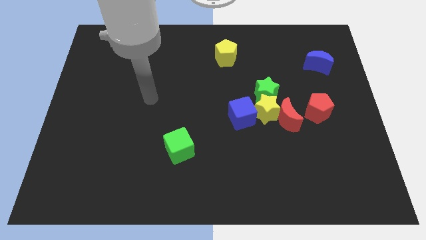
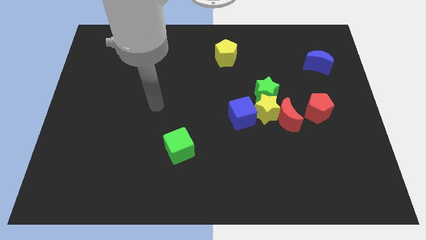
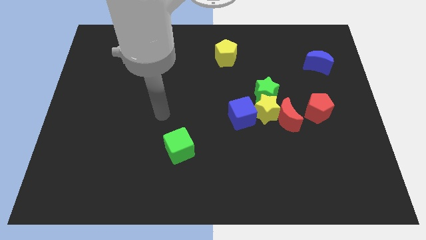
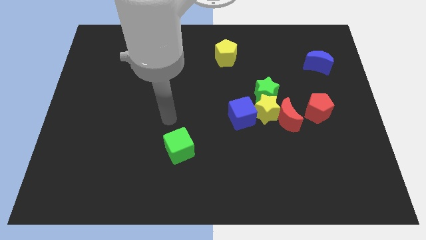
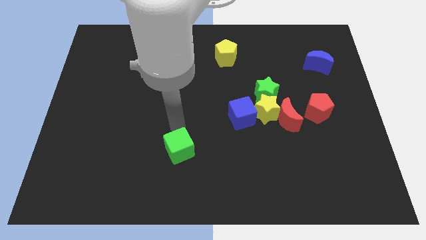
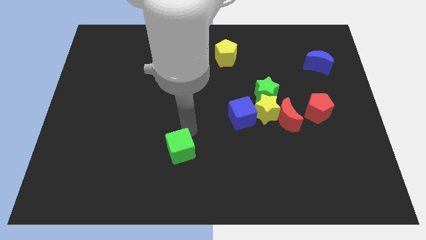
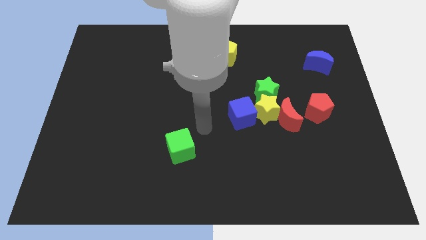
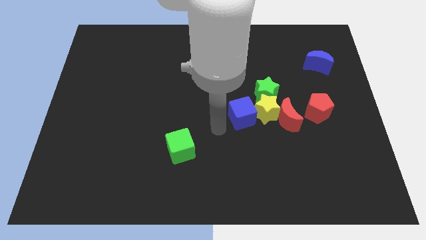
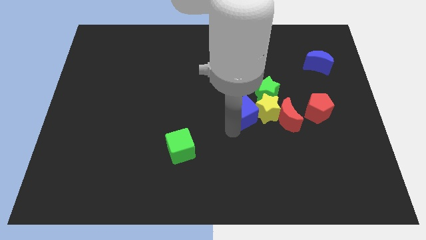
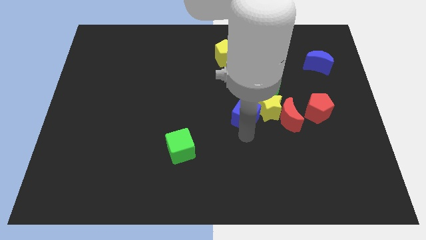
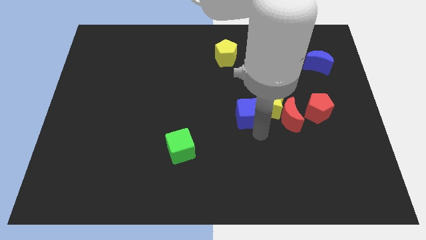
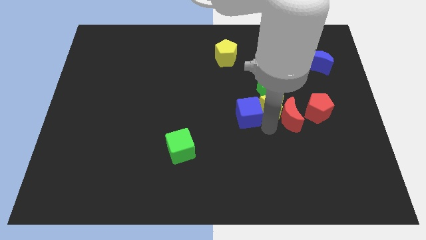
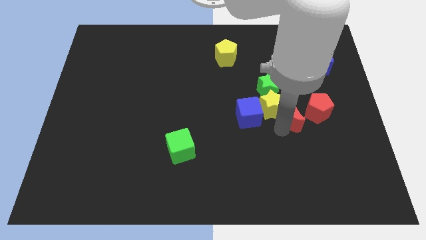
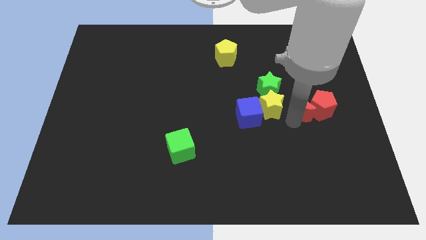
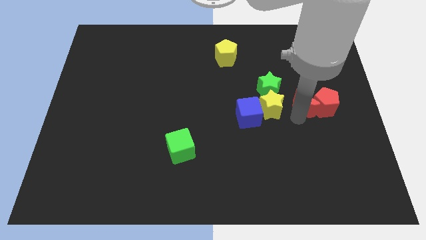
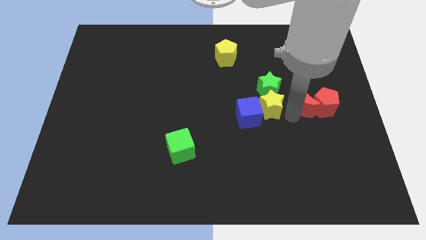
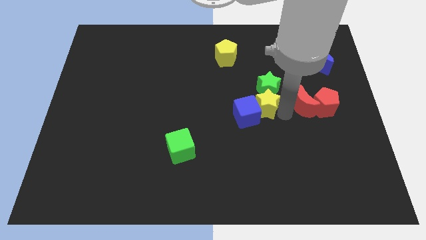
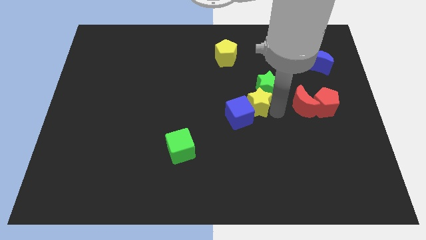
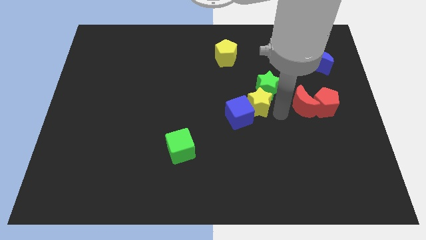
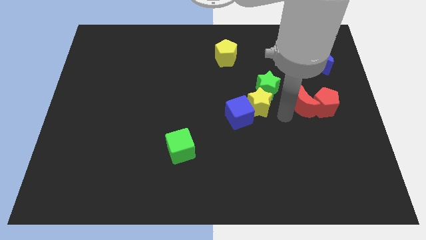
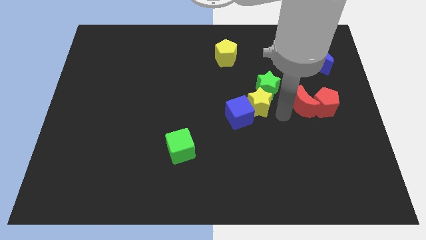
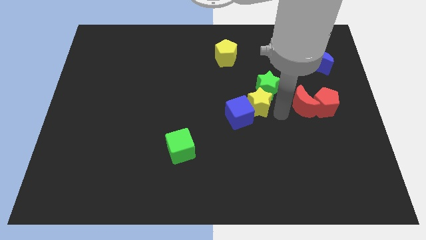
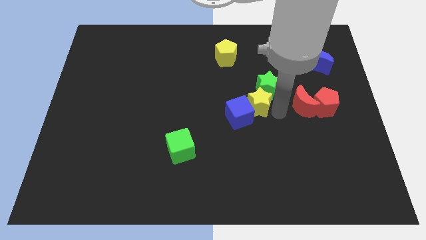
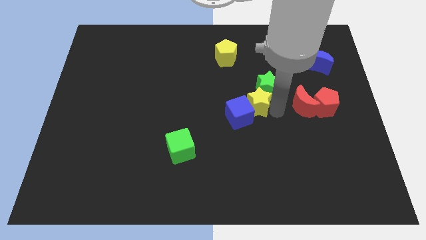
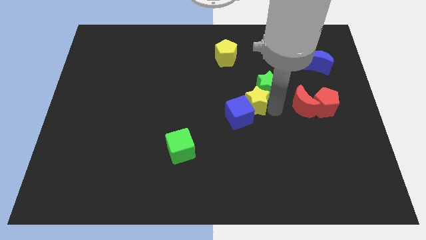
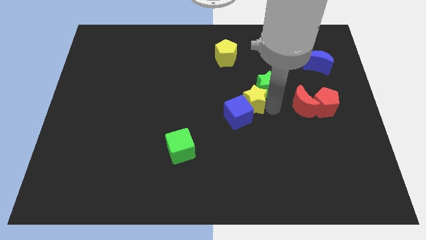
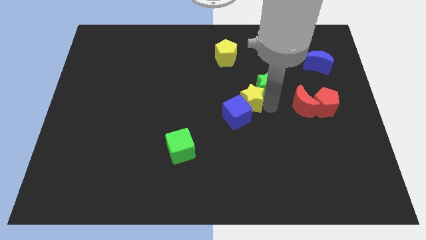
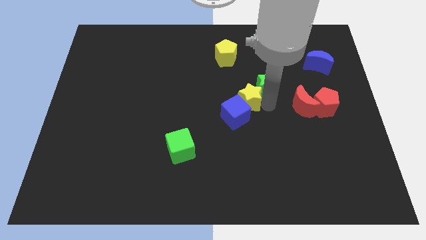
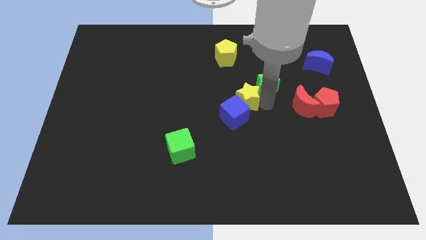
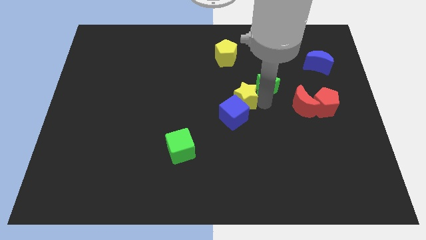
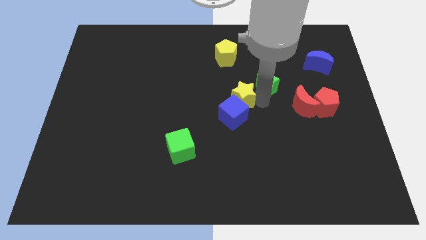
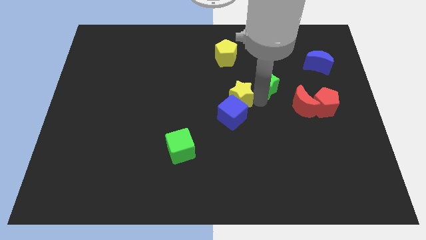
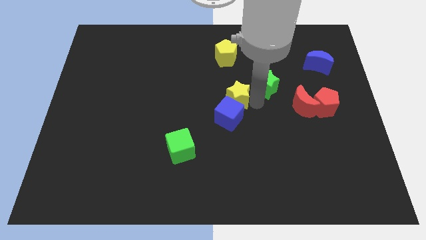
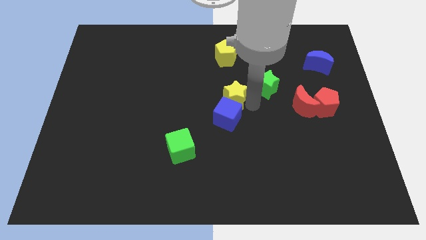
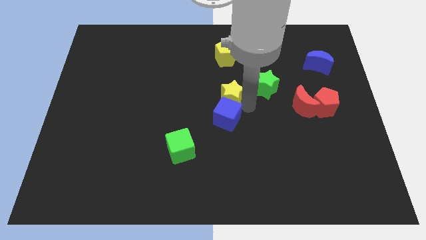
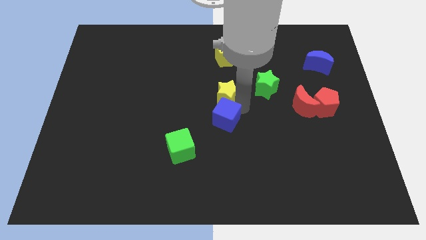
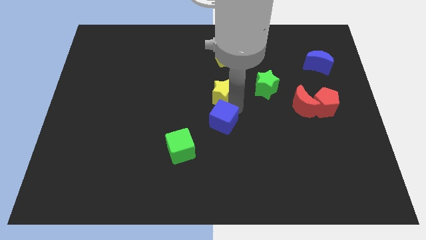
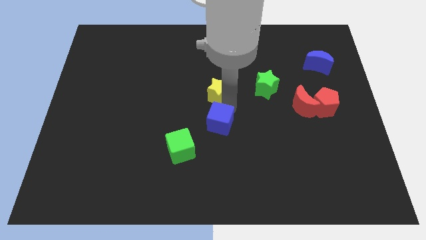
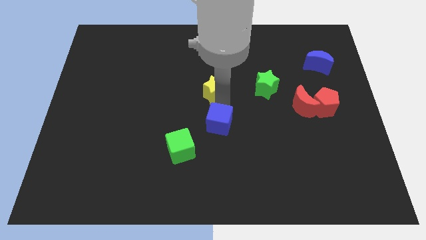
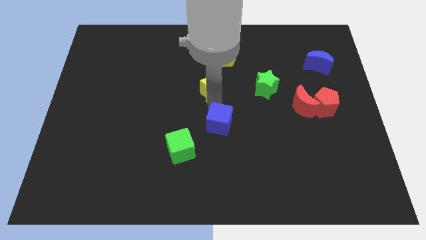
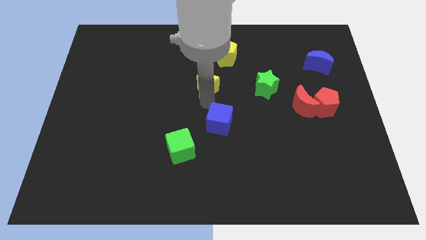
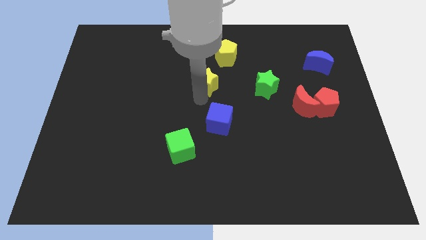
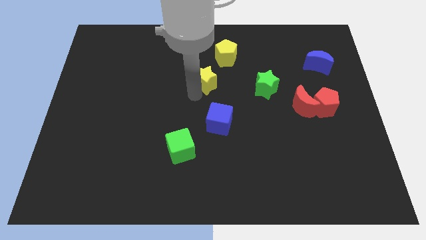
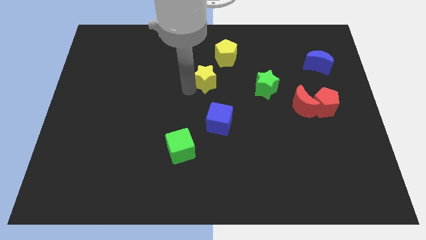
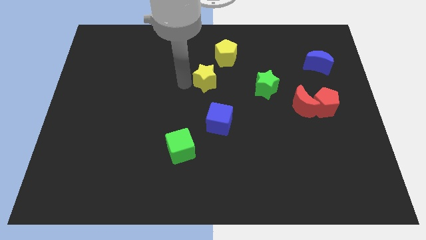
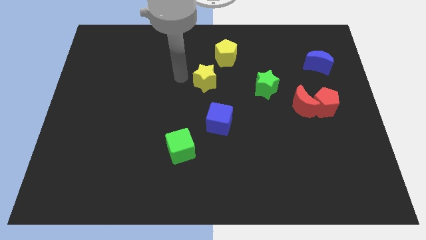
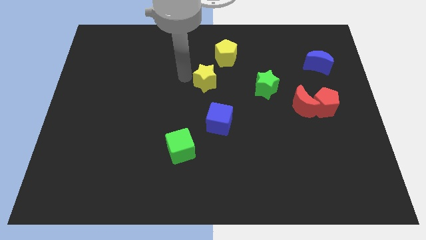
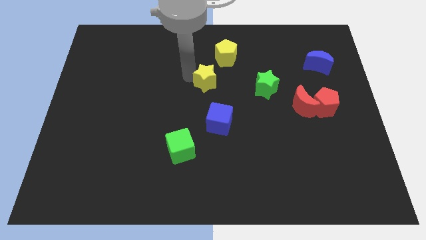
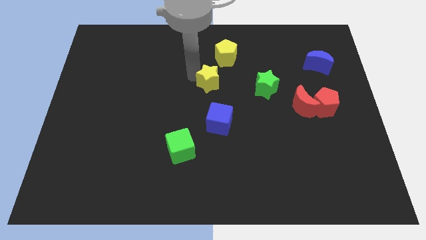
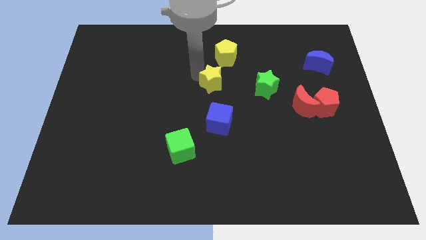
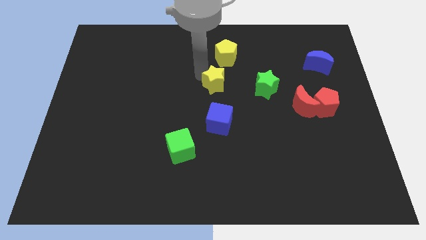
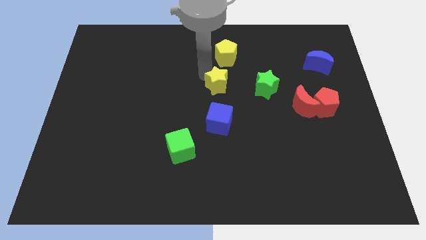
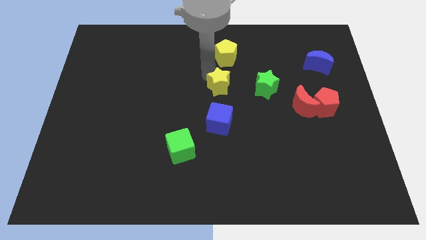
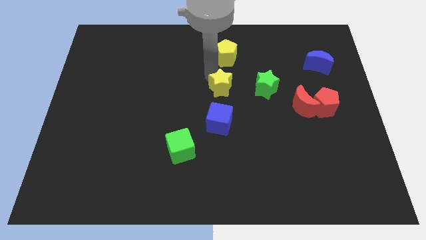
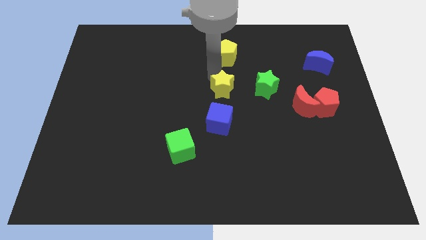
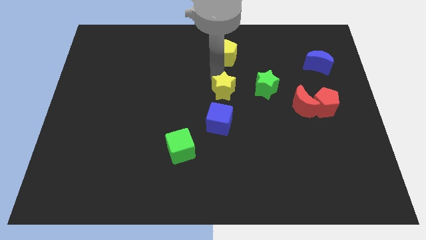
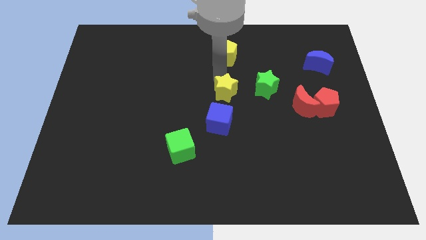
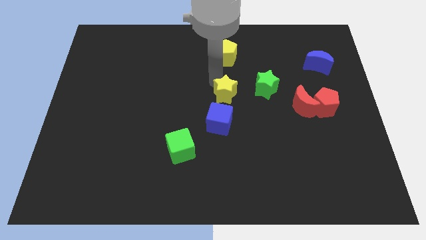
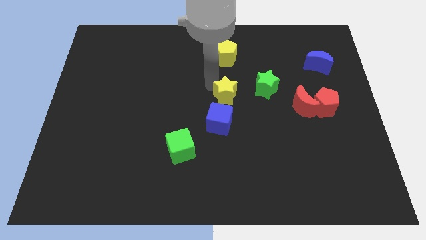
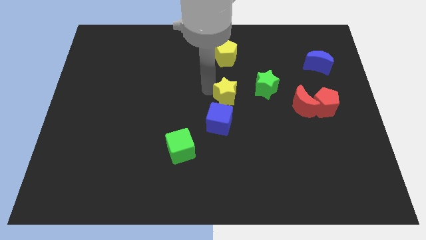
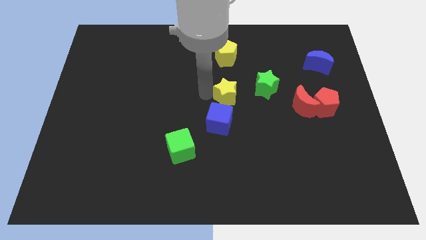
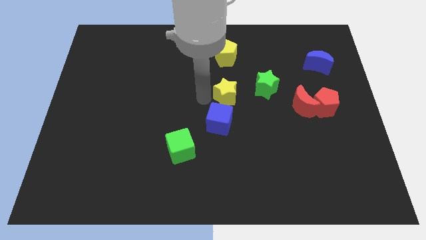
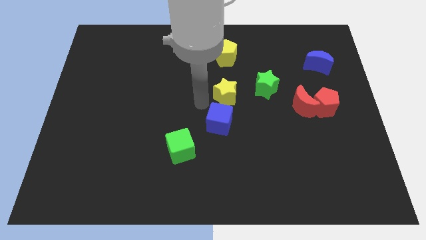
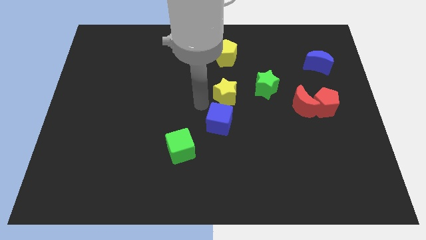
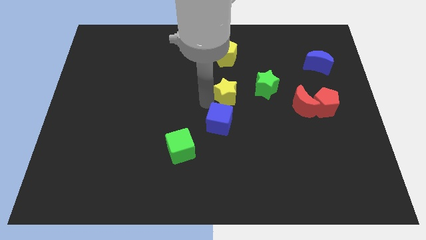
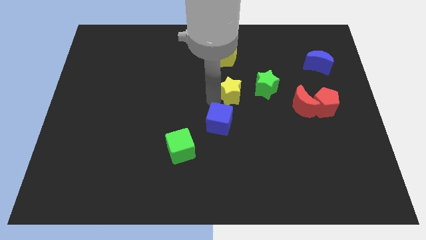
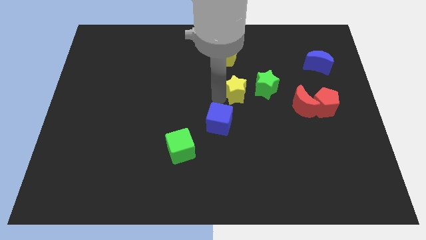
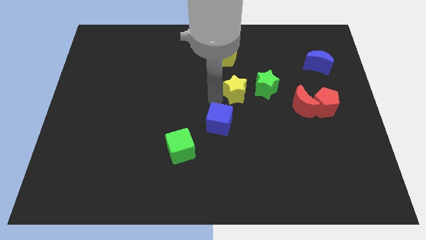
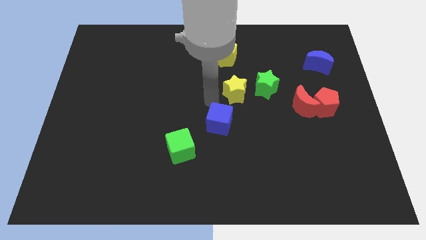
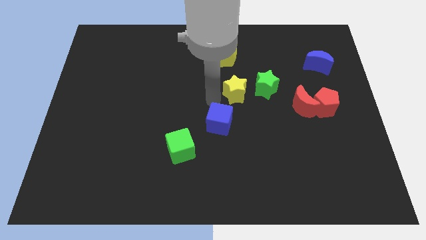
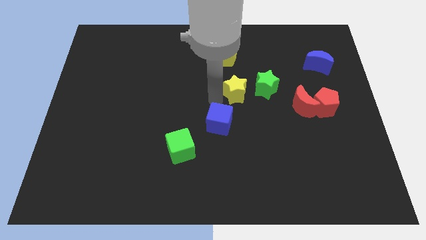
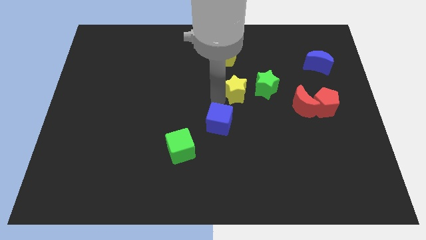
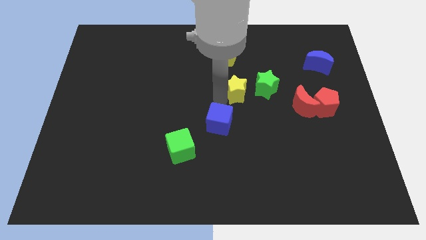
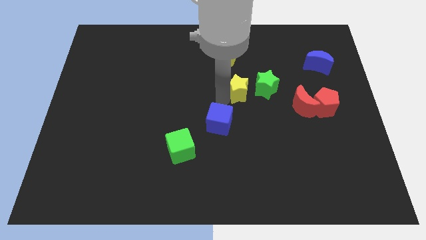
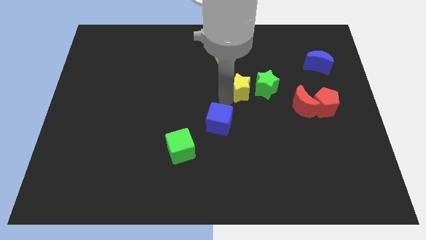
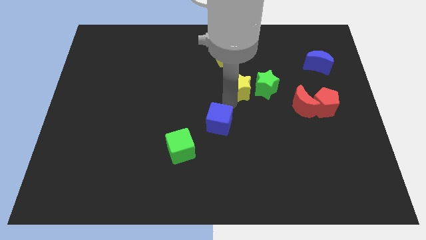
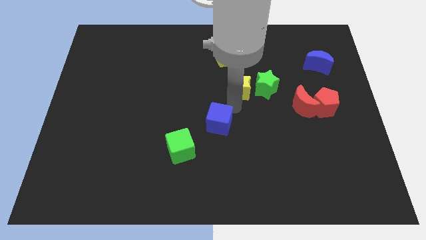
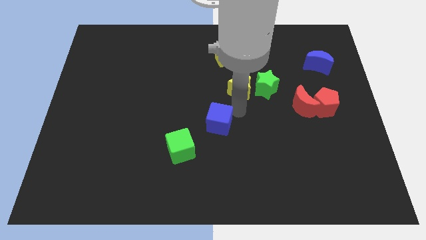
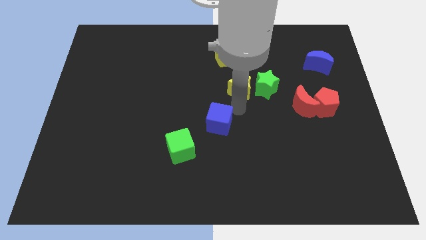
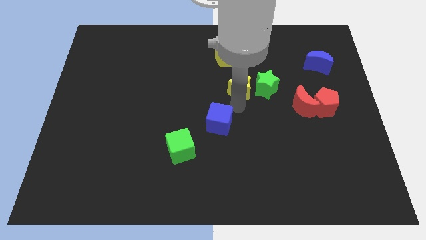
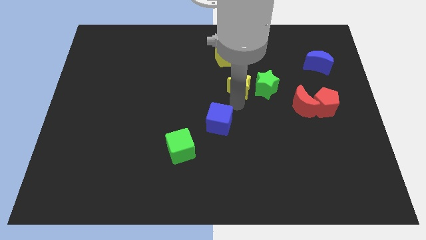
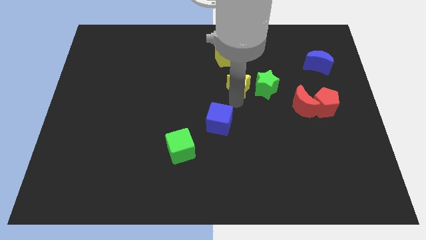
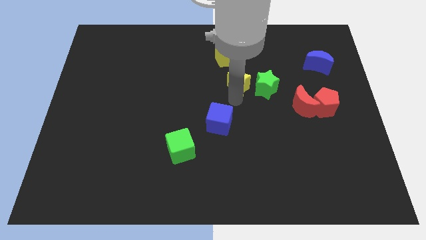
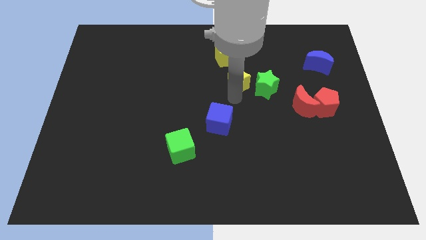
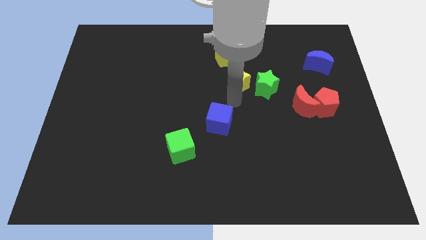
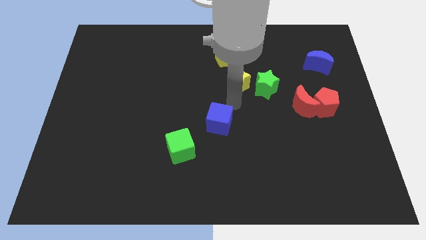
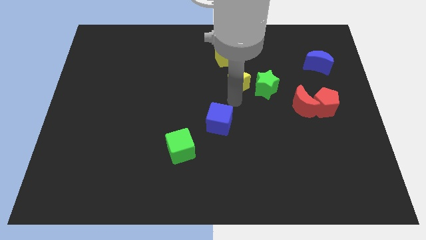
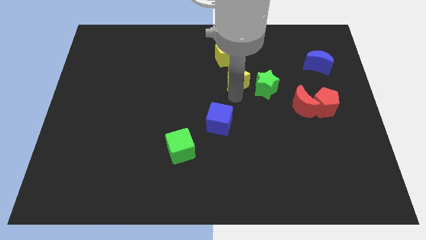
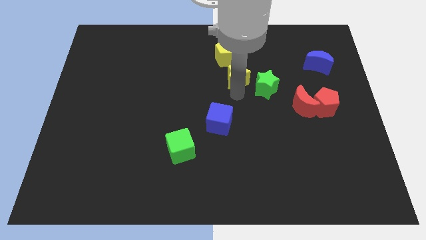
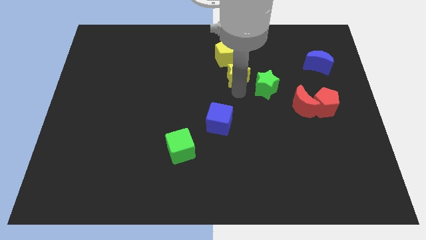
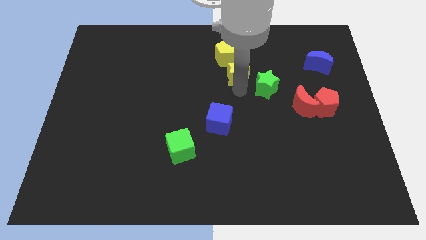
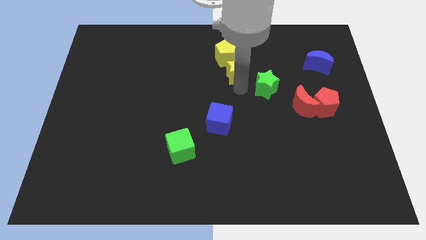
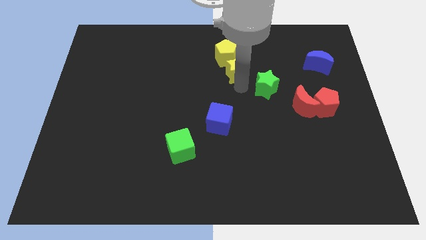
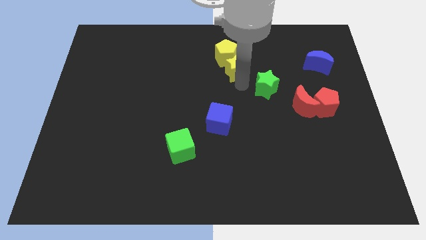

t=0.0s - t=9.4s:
put the yellow star close to the yellow pentagon
